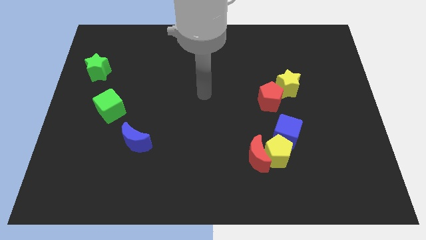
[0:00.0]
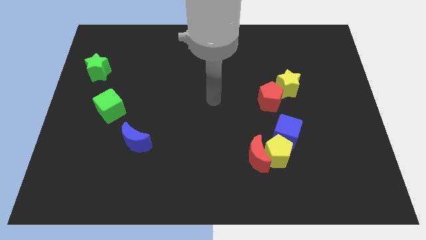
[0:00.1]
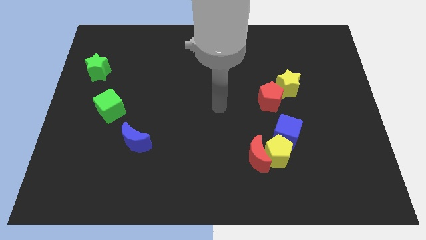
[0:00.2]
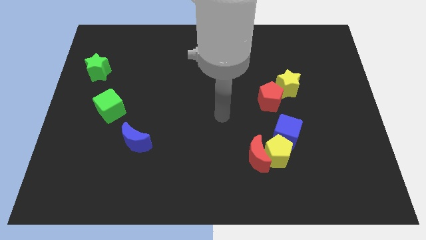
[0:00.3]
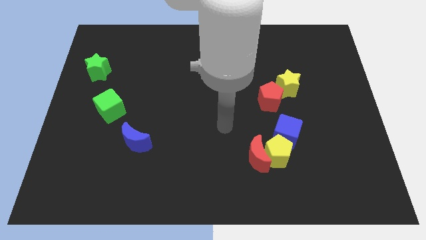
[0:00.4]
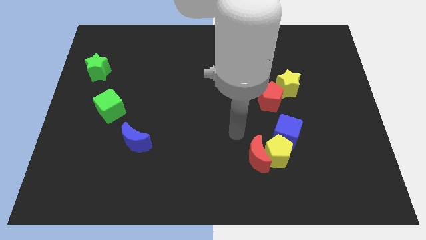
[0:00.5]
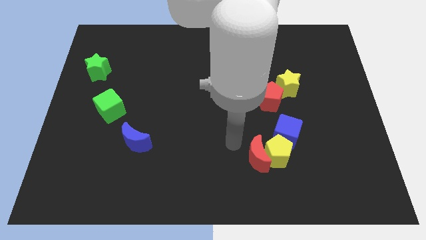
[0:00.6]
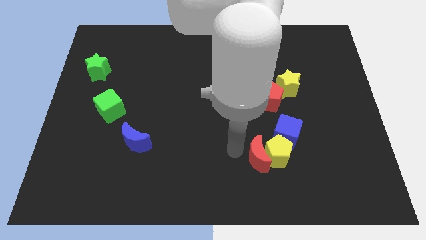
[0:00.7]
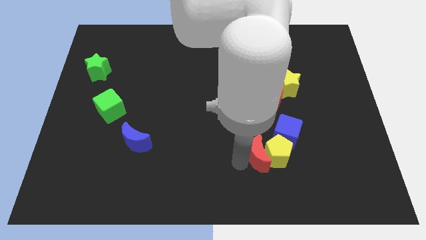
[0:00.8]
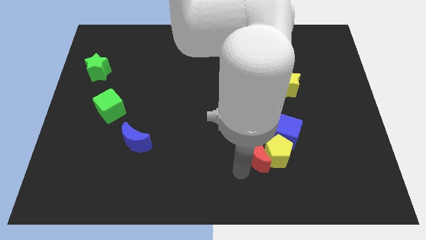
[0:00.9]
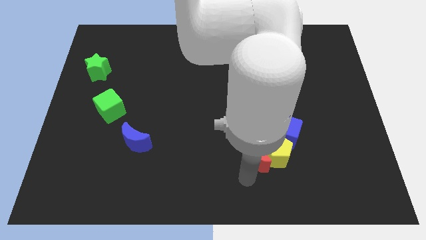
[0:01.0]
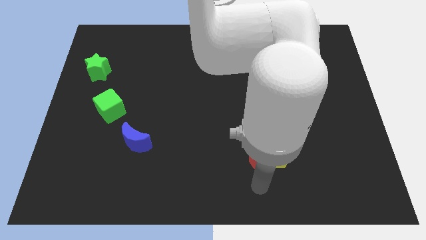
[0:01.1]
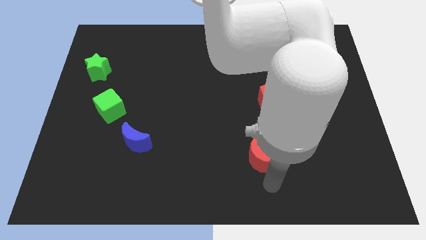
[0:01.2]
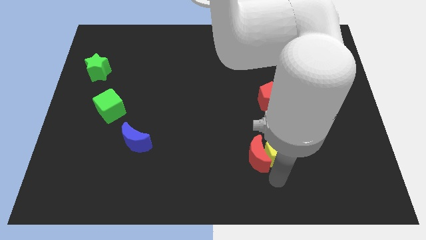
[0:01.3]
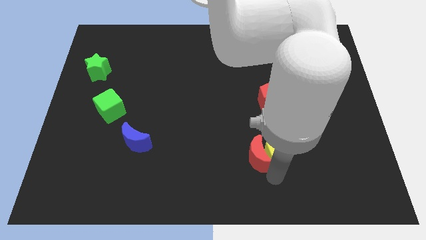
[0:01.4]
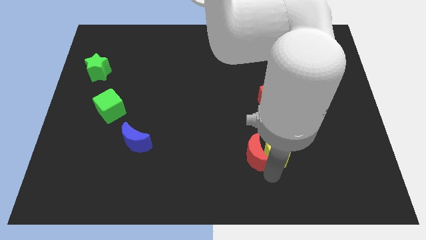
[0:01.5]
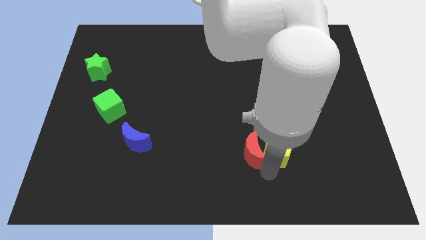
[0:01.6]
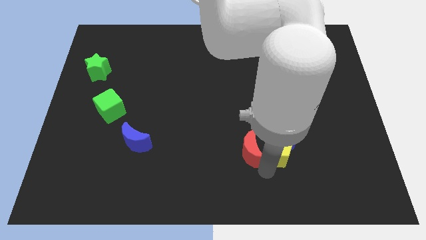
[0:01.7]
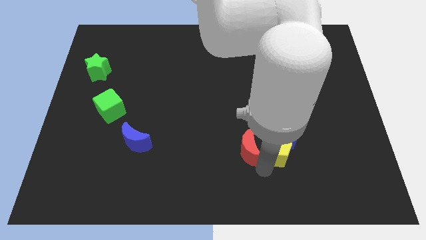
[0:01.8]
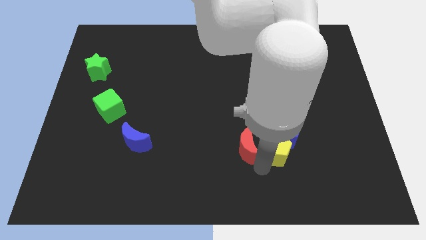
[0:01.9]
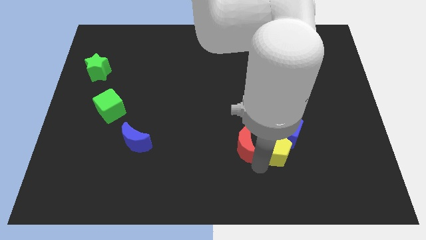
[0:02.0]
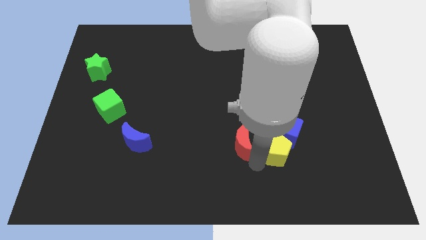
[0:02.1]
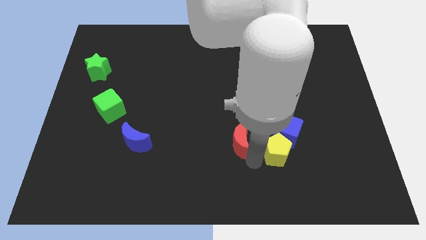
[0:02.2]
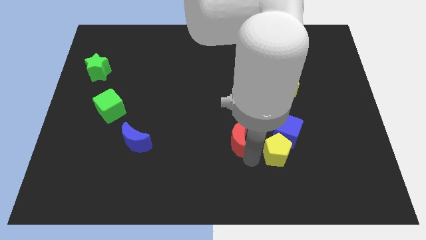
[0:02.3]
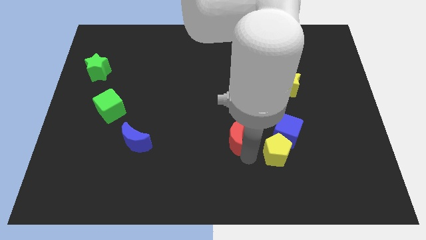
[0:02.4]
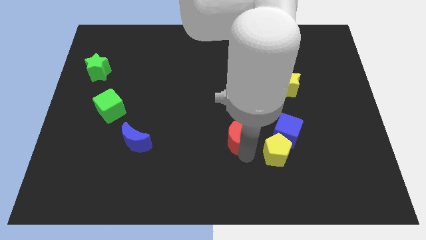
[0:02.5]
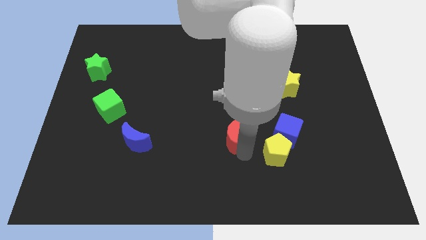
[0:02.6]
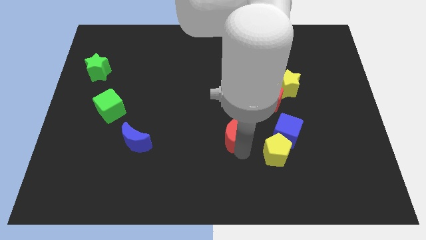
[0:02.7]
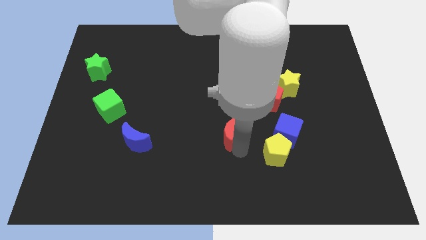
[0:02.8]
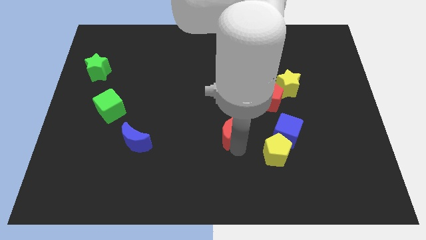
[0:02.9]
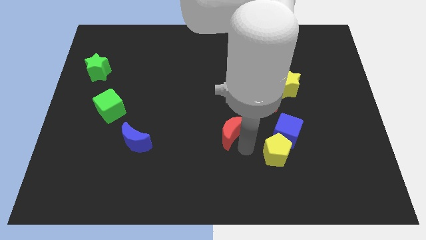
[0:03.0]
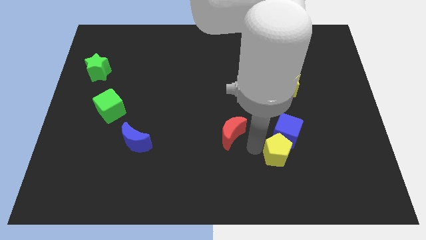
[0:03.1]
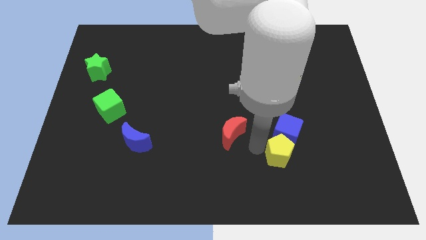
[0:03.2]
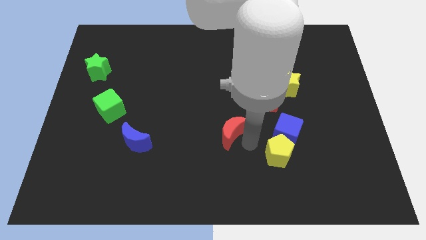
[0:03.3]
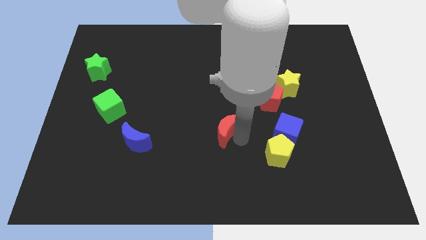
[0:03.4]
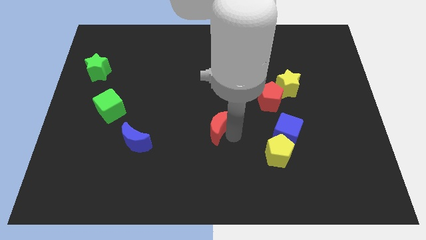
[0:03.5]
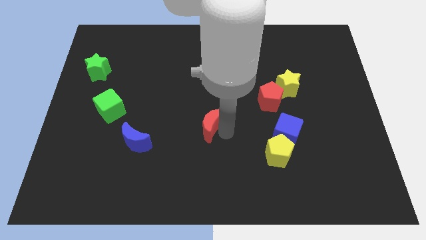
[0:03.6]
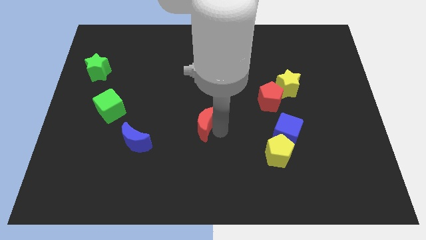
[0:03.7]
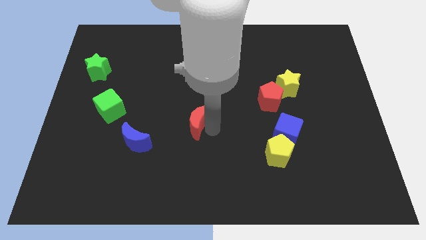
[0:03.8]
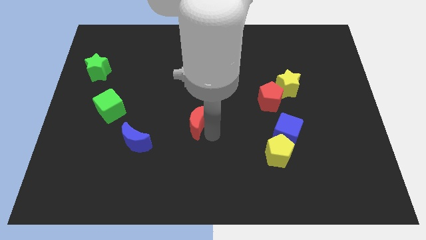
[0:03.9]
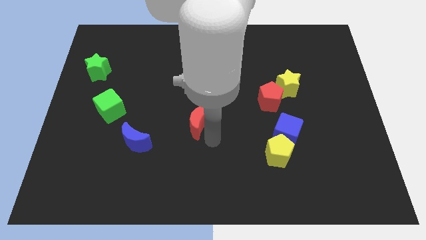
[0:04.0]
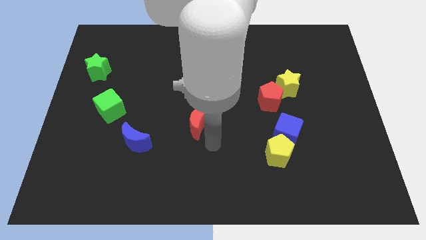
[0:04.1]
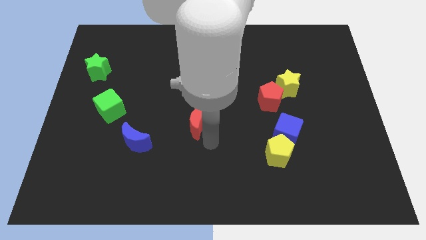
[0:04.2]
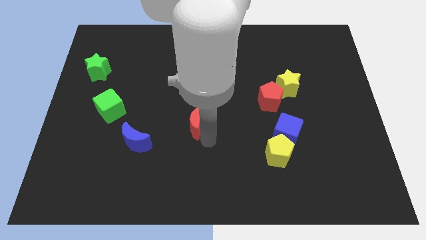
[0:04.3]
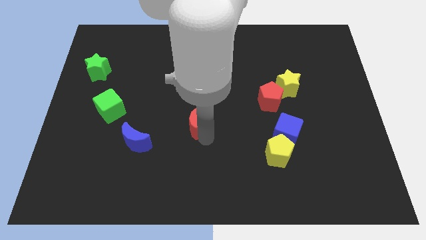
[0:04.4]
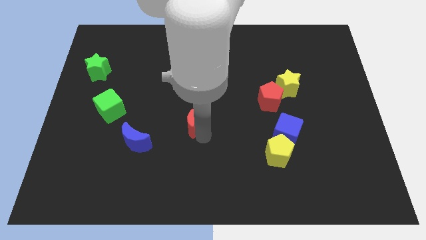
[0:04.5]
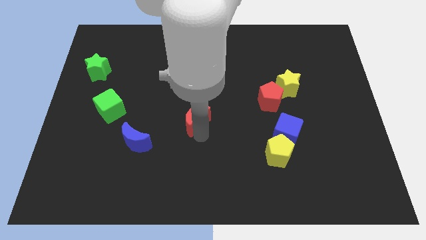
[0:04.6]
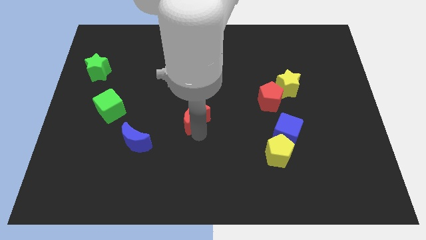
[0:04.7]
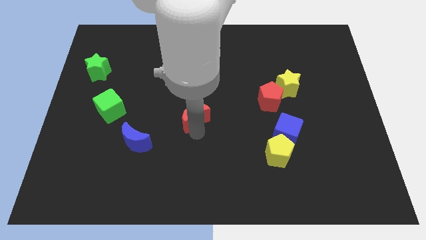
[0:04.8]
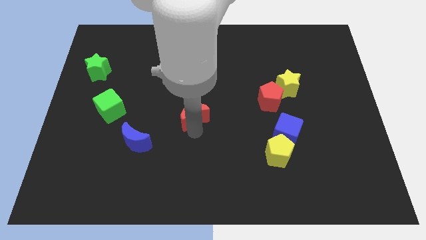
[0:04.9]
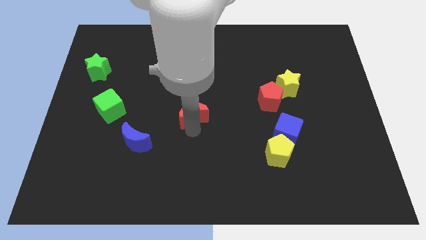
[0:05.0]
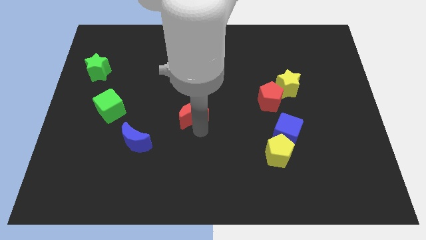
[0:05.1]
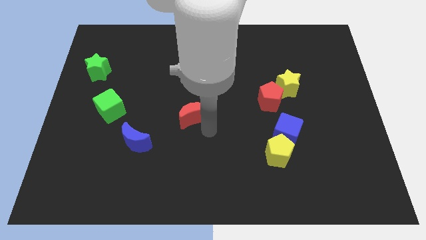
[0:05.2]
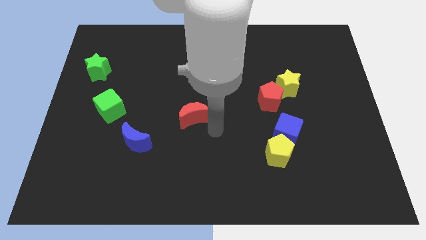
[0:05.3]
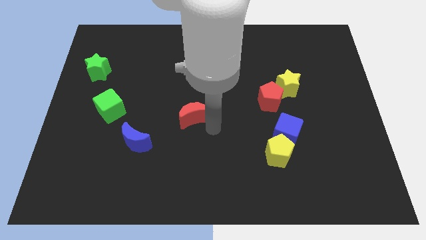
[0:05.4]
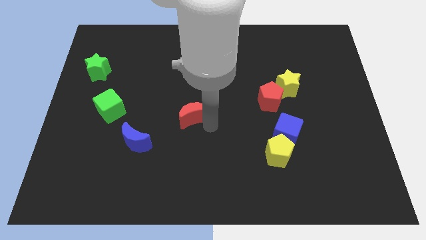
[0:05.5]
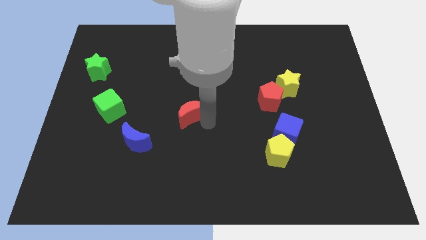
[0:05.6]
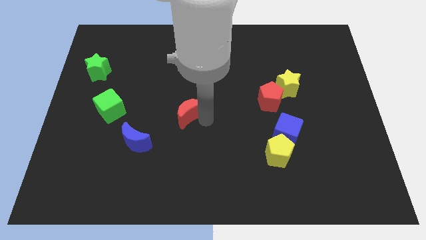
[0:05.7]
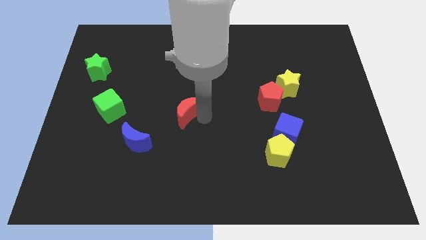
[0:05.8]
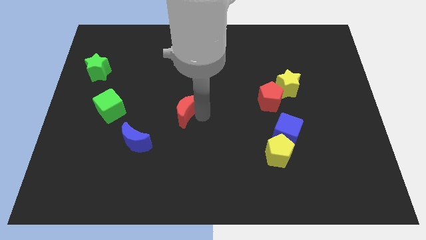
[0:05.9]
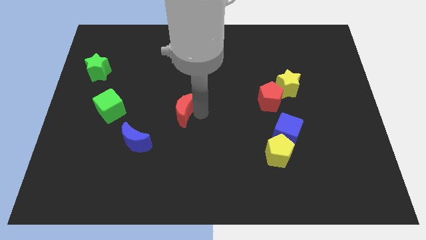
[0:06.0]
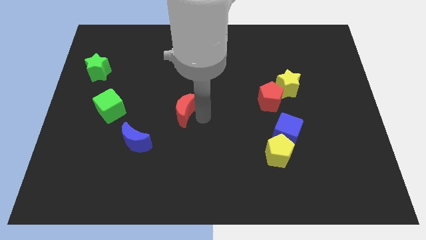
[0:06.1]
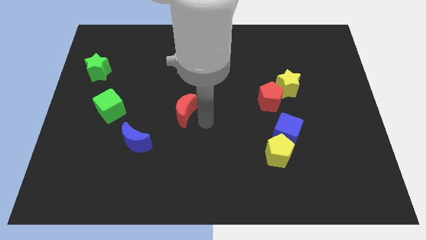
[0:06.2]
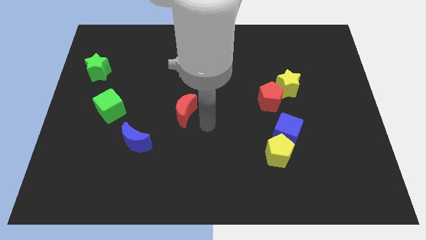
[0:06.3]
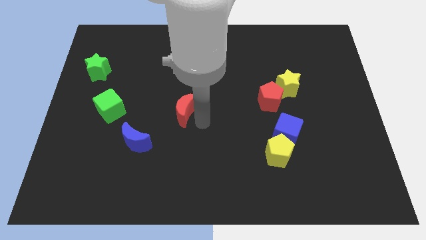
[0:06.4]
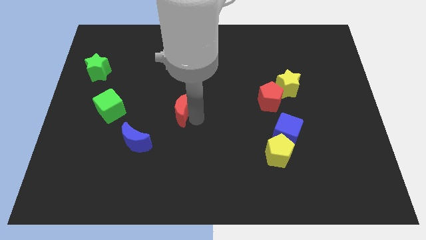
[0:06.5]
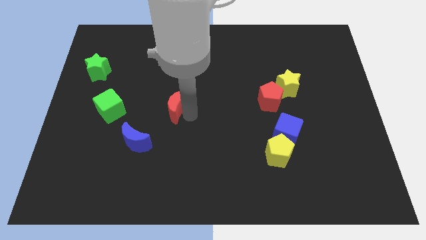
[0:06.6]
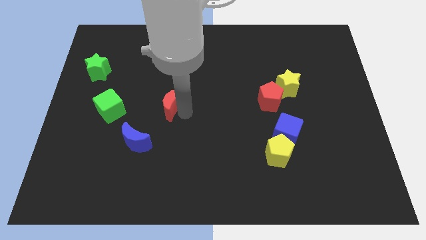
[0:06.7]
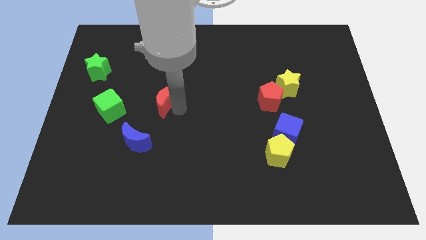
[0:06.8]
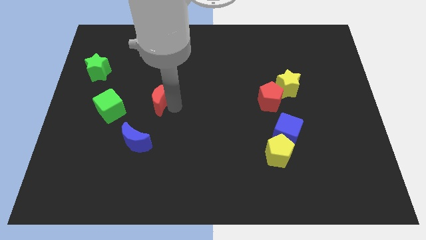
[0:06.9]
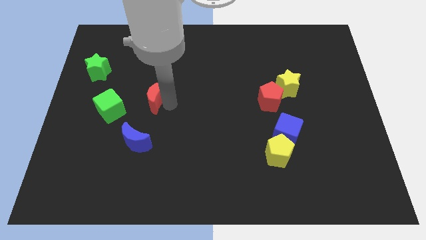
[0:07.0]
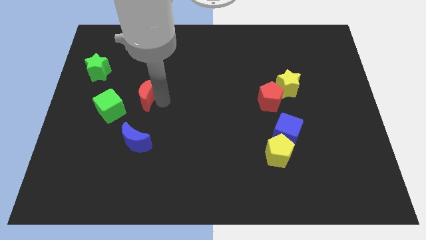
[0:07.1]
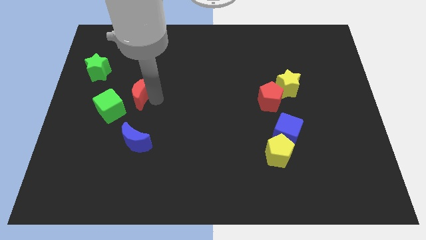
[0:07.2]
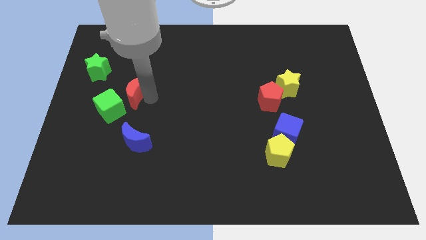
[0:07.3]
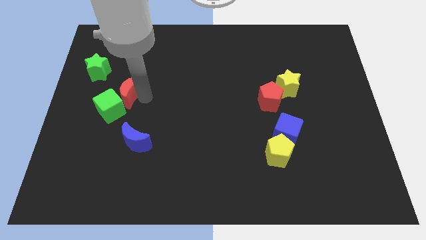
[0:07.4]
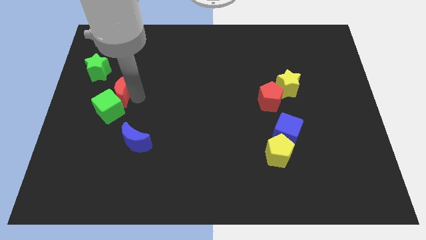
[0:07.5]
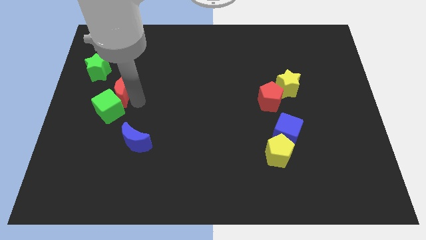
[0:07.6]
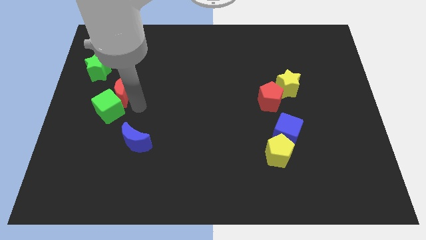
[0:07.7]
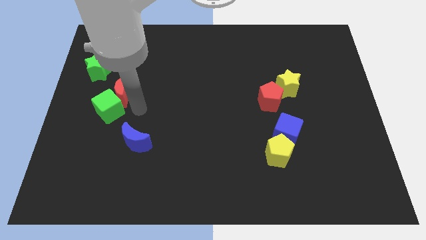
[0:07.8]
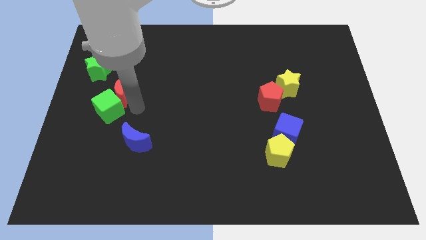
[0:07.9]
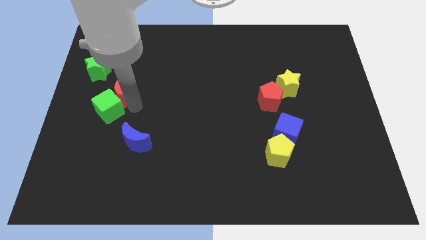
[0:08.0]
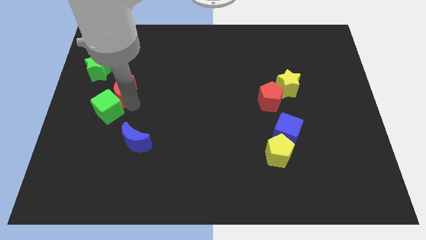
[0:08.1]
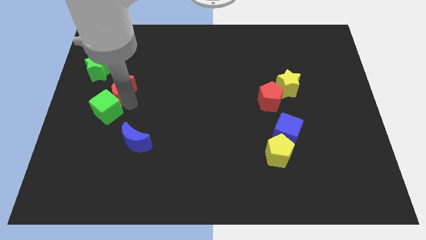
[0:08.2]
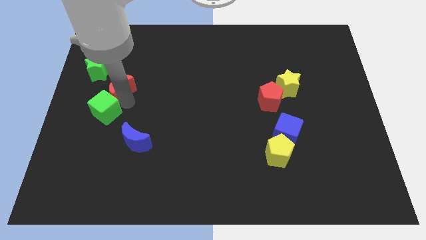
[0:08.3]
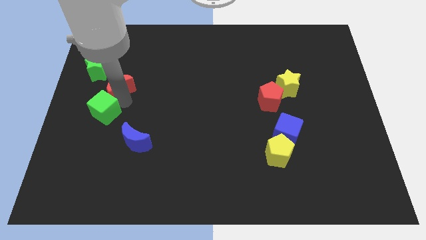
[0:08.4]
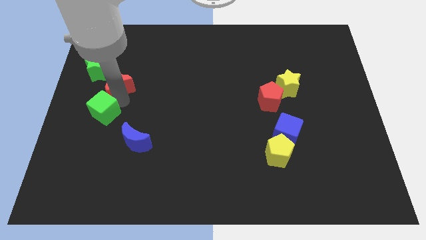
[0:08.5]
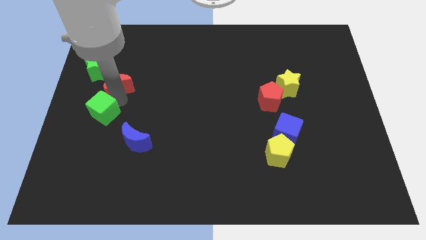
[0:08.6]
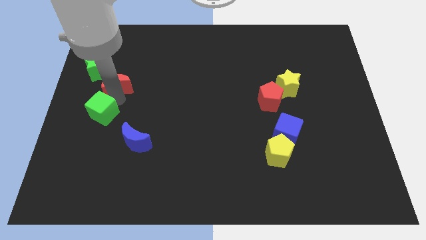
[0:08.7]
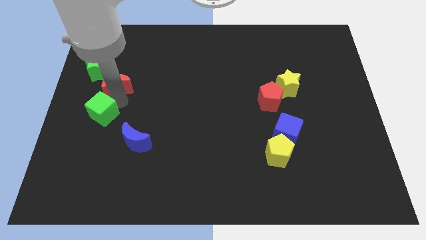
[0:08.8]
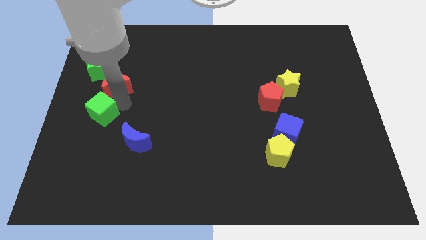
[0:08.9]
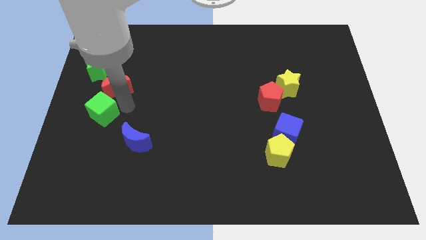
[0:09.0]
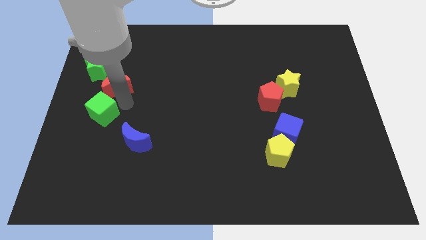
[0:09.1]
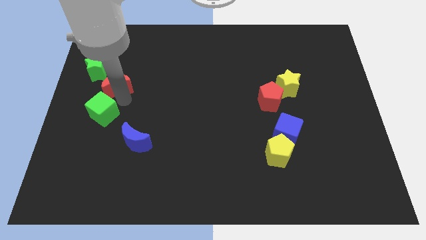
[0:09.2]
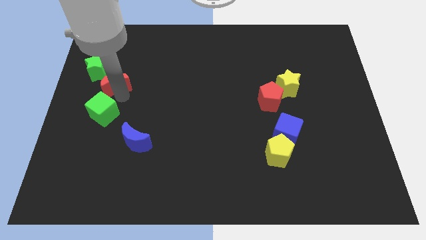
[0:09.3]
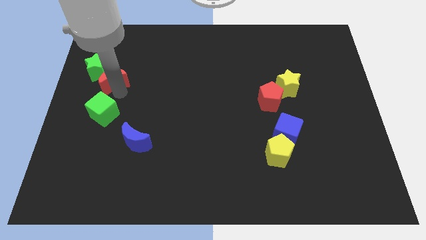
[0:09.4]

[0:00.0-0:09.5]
move the red moon to the green star
